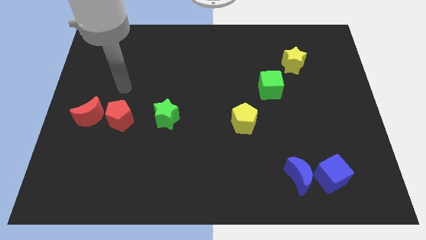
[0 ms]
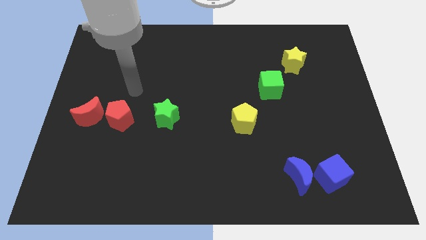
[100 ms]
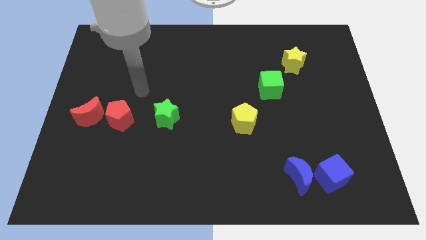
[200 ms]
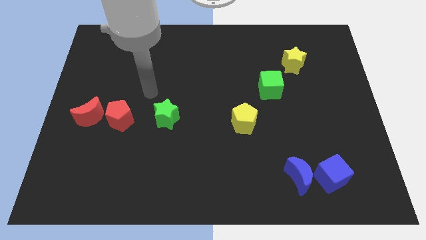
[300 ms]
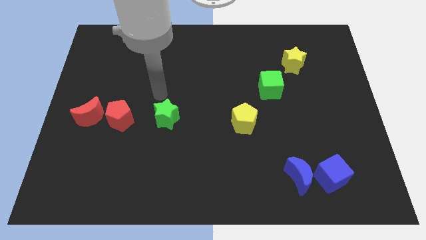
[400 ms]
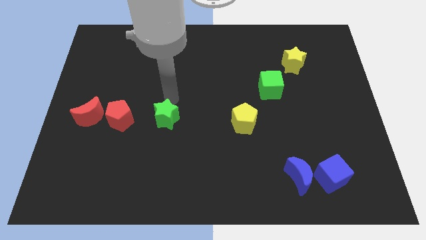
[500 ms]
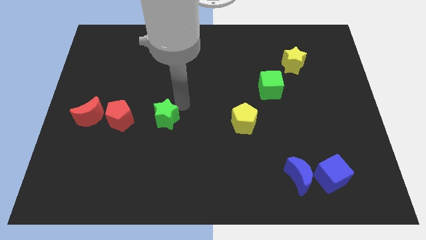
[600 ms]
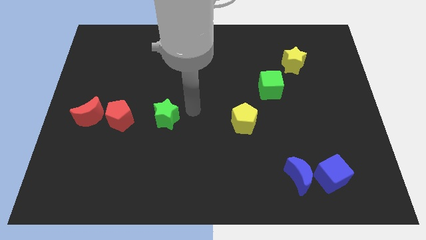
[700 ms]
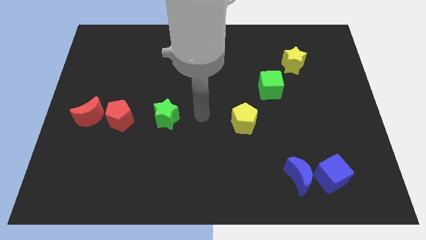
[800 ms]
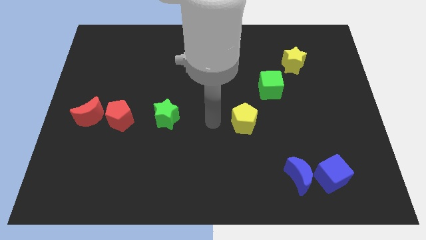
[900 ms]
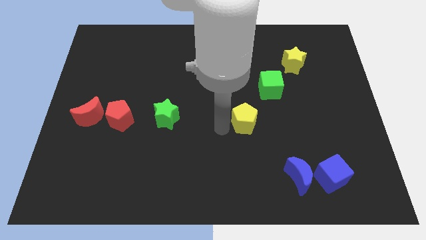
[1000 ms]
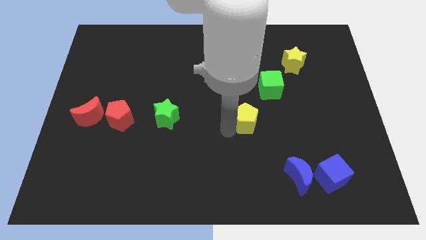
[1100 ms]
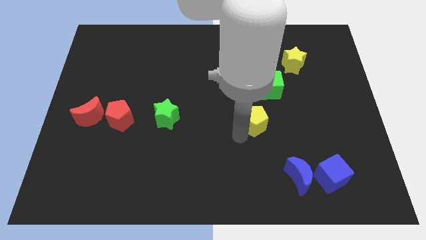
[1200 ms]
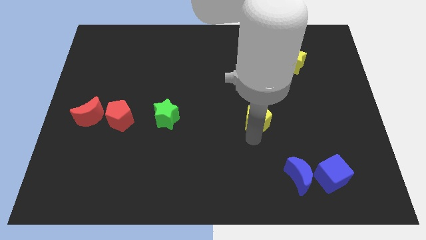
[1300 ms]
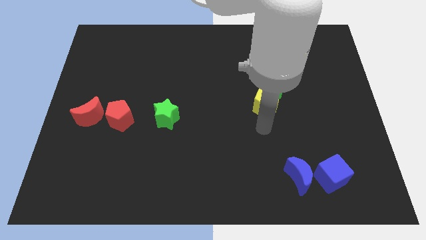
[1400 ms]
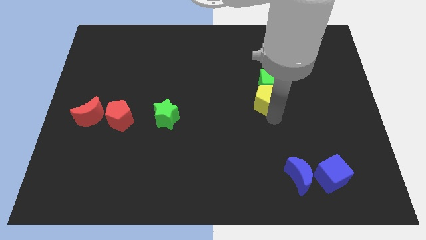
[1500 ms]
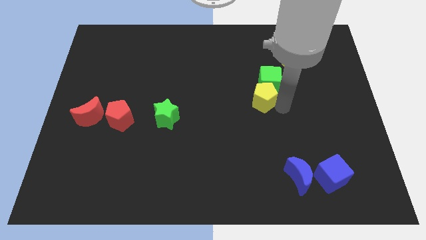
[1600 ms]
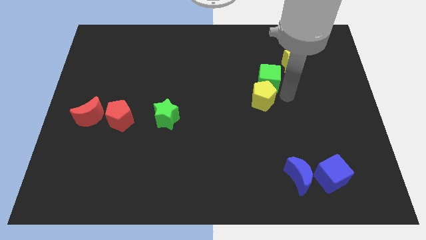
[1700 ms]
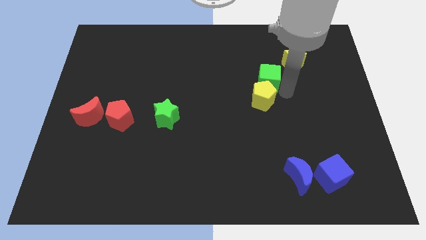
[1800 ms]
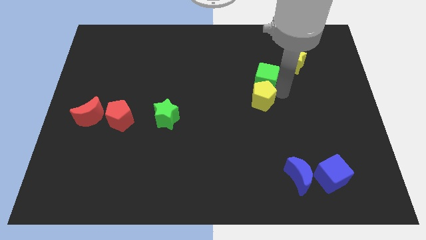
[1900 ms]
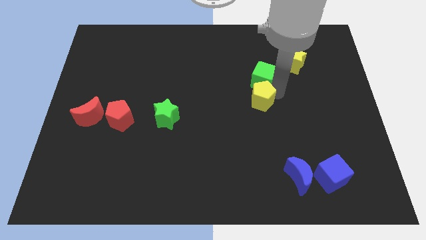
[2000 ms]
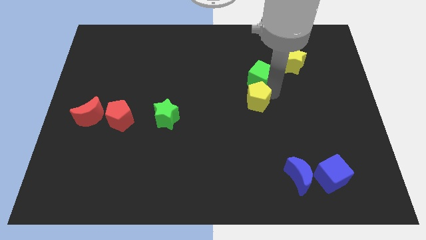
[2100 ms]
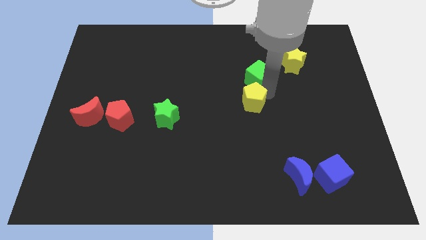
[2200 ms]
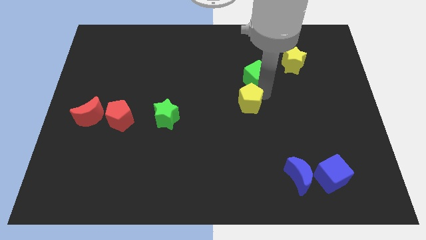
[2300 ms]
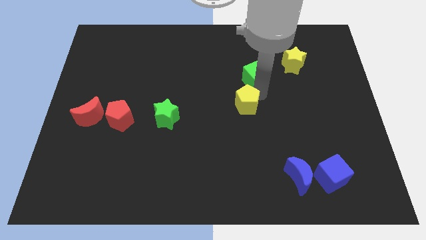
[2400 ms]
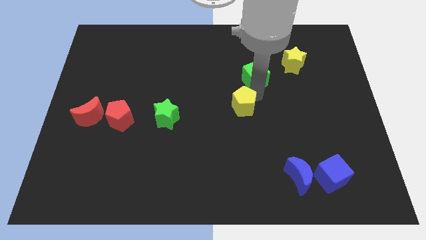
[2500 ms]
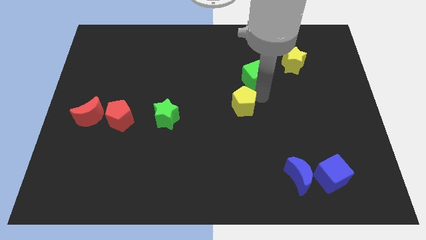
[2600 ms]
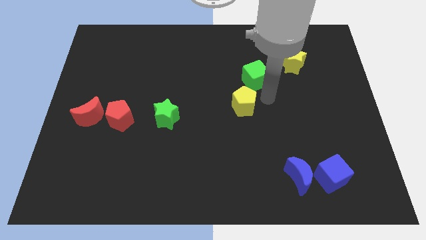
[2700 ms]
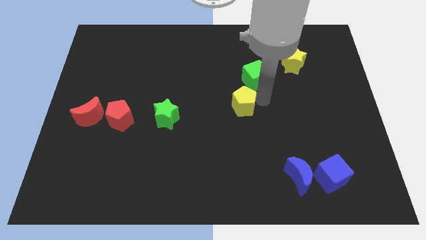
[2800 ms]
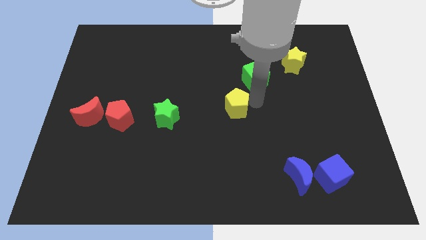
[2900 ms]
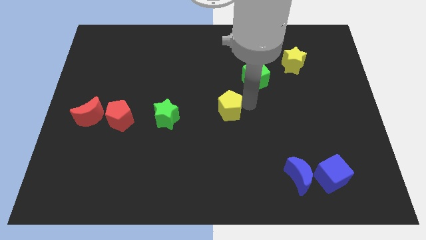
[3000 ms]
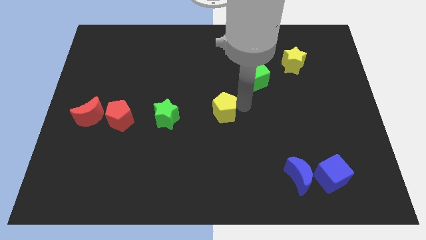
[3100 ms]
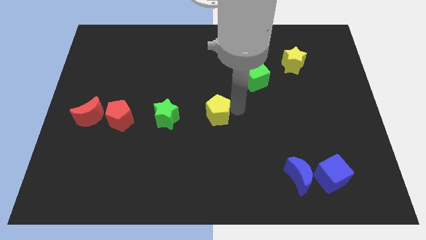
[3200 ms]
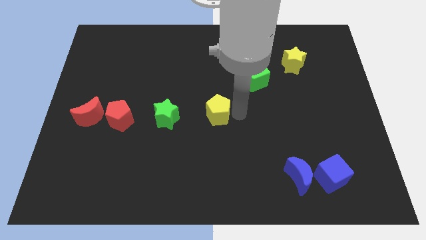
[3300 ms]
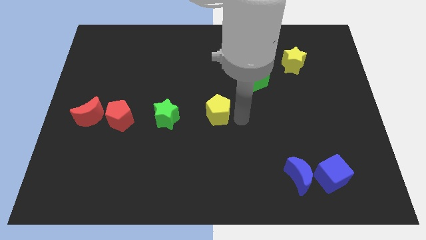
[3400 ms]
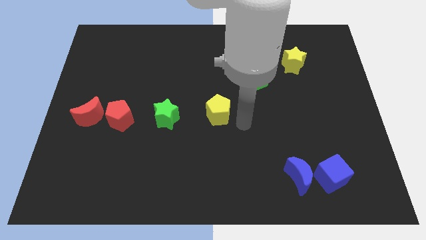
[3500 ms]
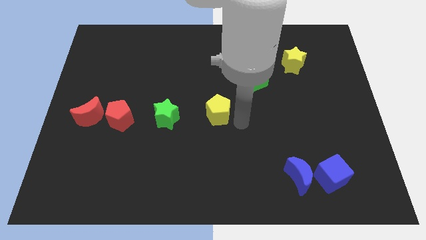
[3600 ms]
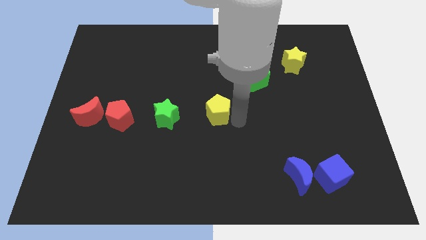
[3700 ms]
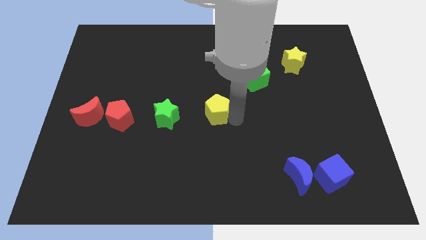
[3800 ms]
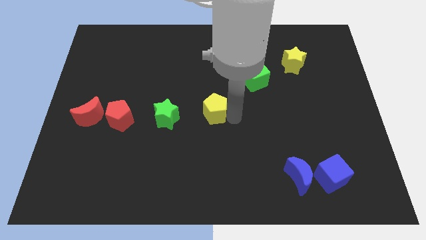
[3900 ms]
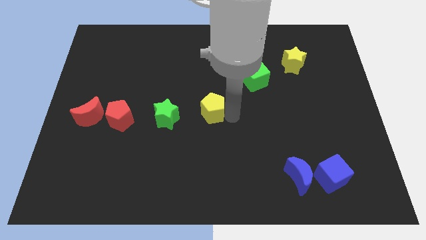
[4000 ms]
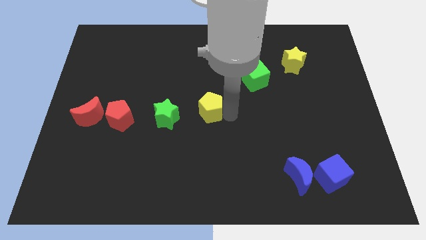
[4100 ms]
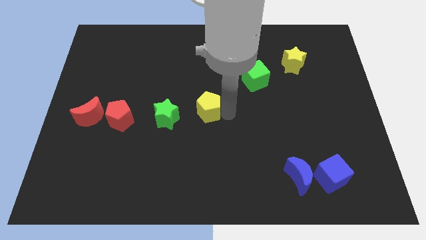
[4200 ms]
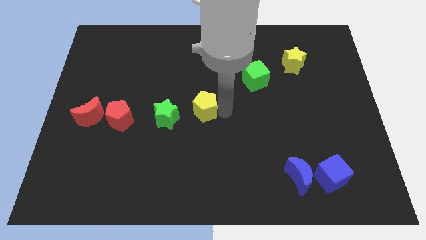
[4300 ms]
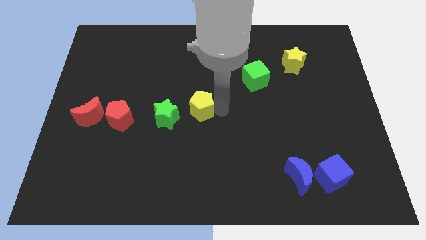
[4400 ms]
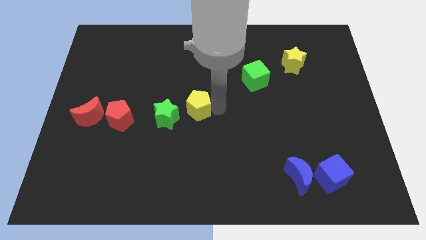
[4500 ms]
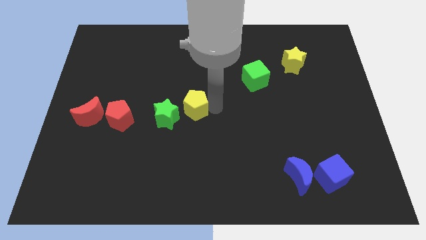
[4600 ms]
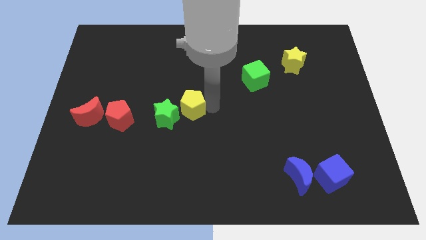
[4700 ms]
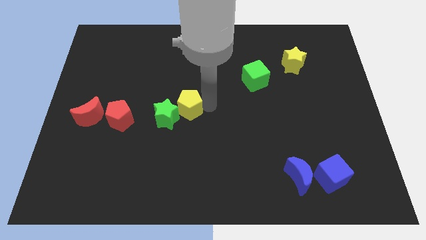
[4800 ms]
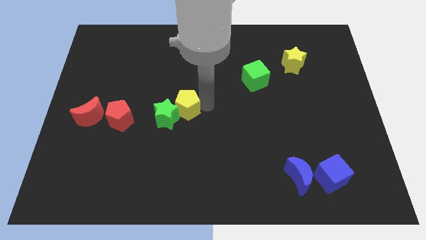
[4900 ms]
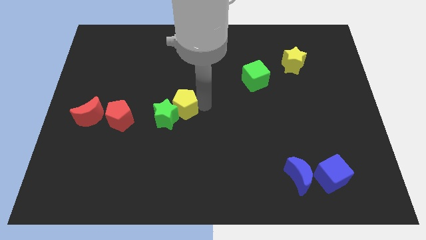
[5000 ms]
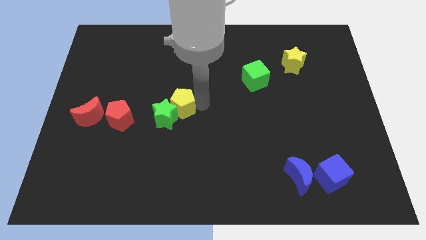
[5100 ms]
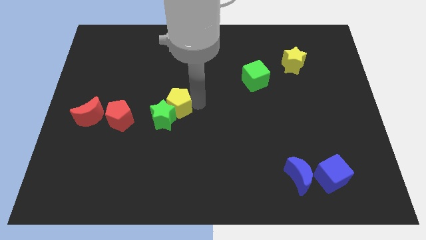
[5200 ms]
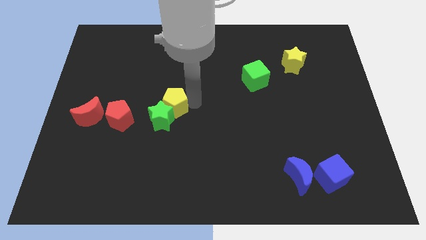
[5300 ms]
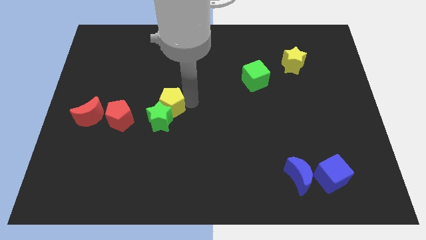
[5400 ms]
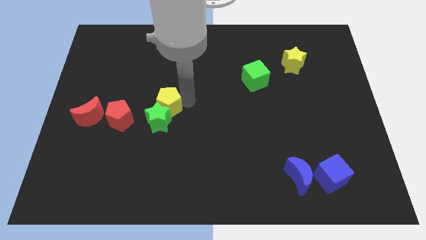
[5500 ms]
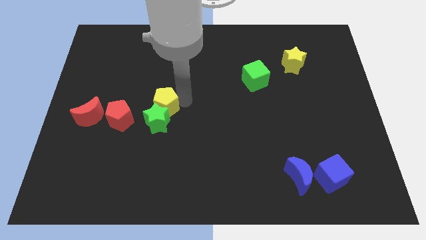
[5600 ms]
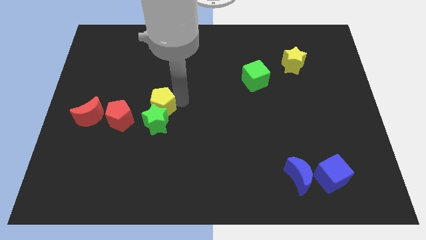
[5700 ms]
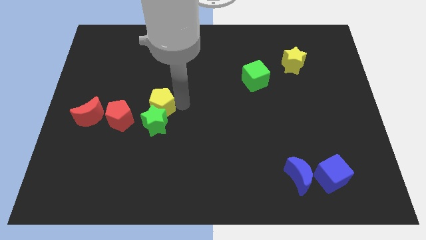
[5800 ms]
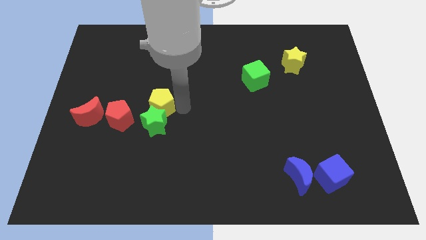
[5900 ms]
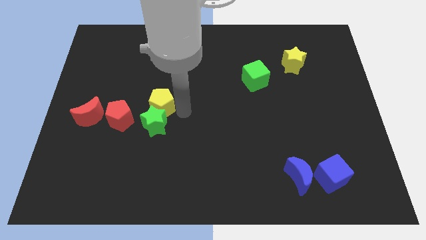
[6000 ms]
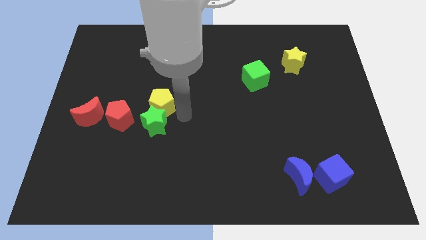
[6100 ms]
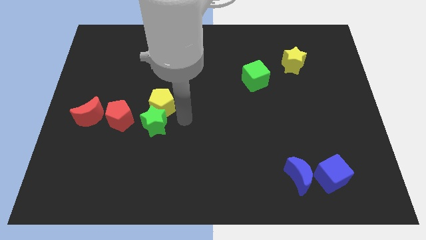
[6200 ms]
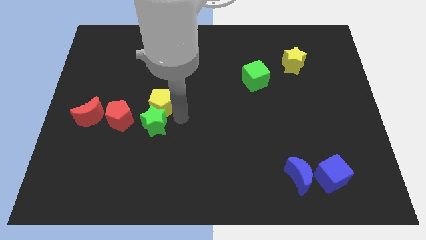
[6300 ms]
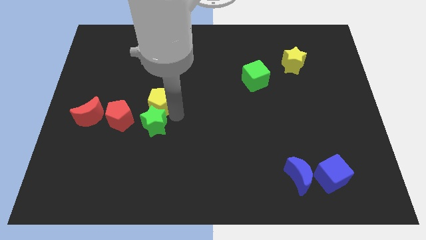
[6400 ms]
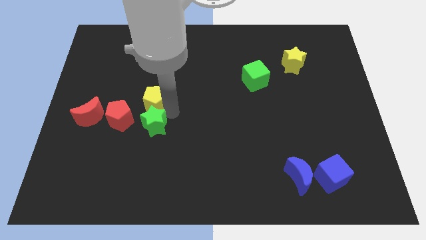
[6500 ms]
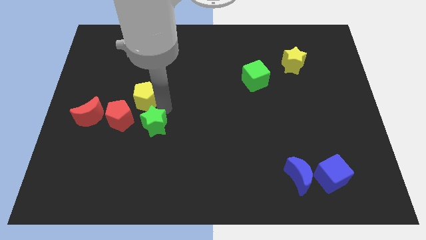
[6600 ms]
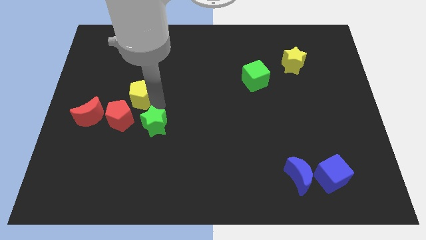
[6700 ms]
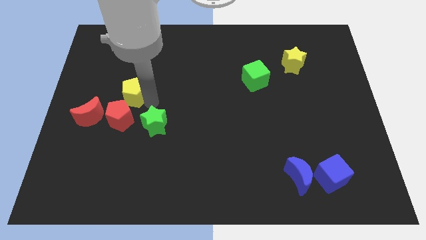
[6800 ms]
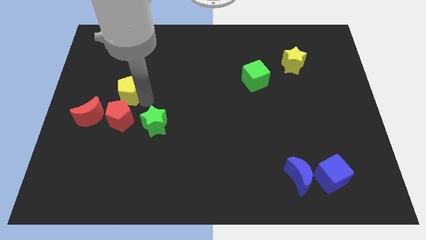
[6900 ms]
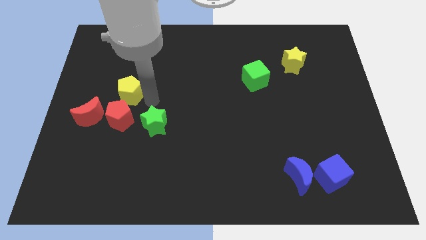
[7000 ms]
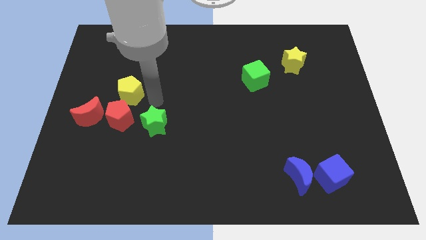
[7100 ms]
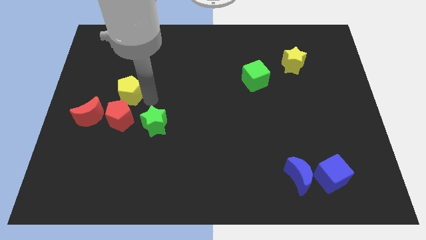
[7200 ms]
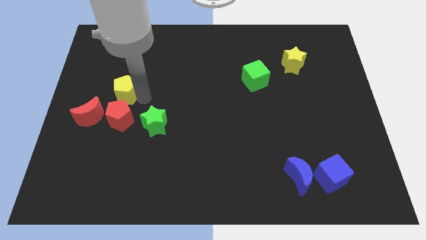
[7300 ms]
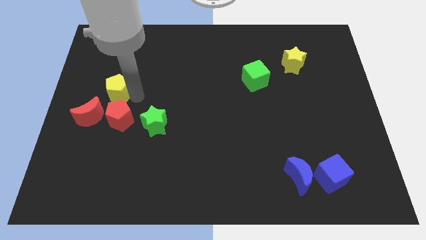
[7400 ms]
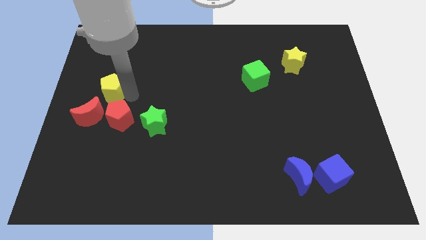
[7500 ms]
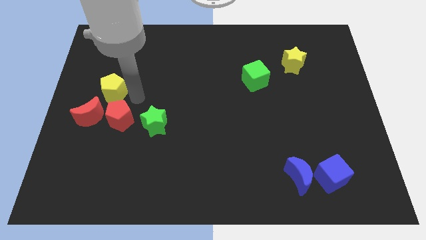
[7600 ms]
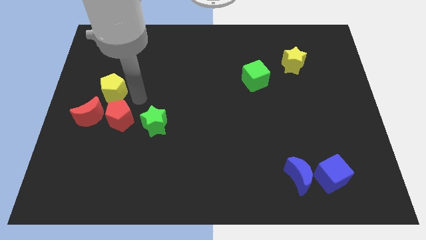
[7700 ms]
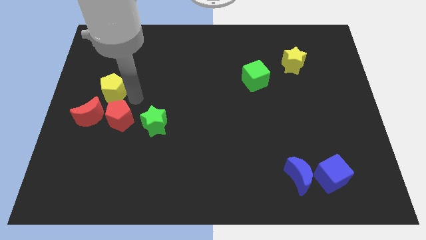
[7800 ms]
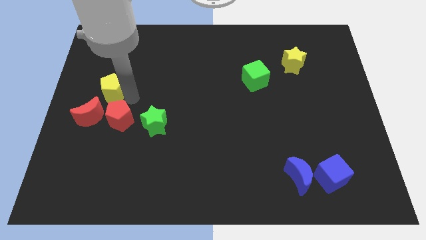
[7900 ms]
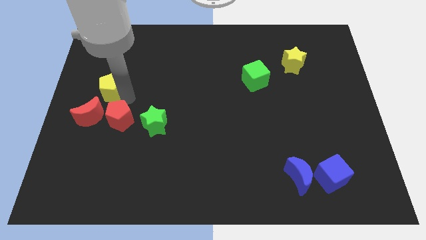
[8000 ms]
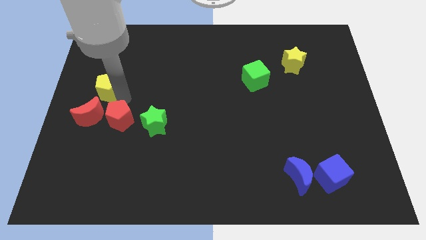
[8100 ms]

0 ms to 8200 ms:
move the yellow pentagon to the left side
